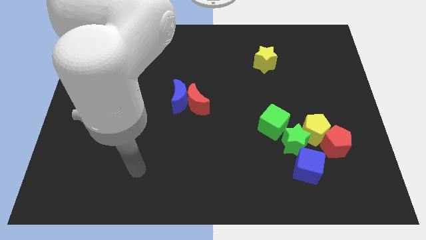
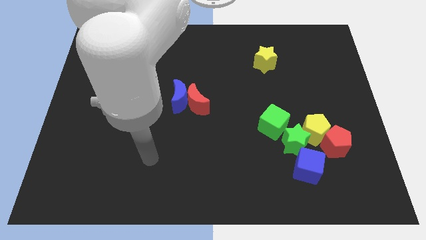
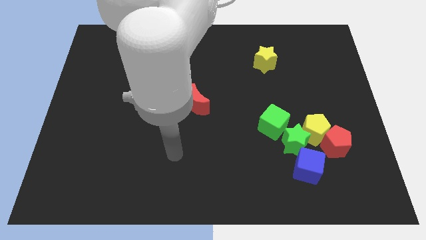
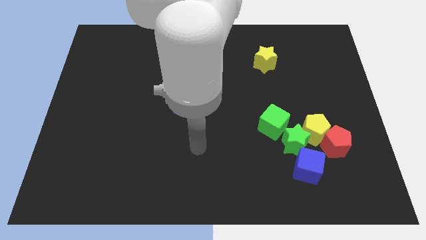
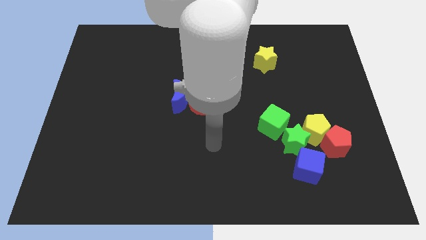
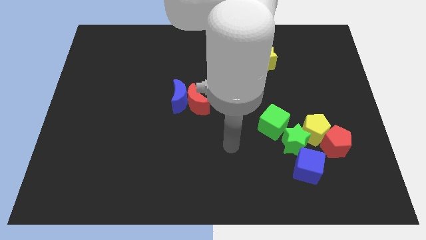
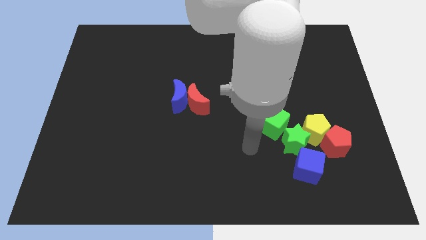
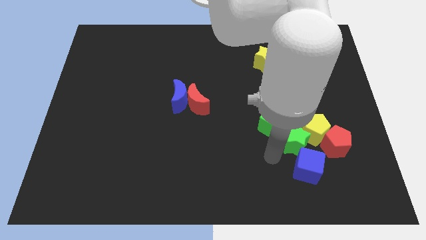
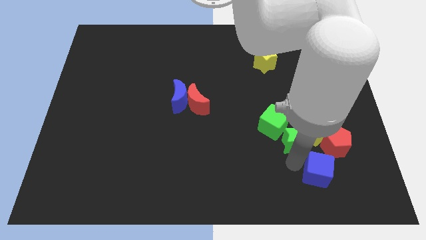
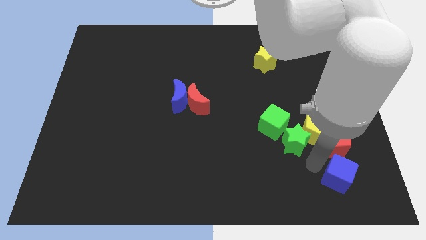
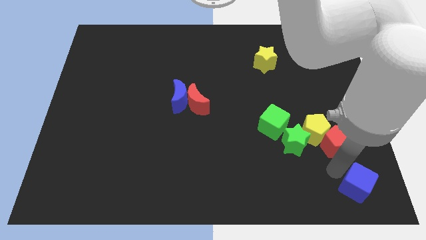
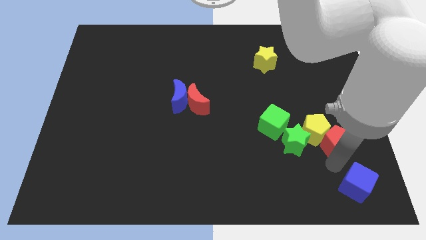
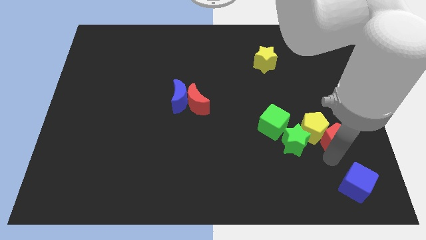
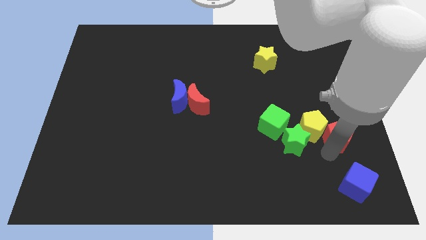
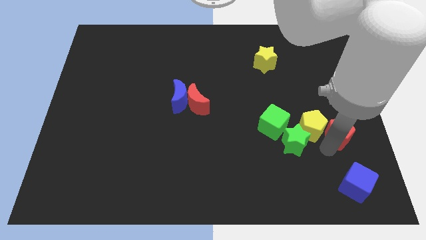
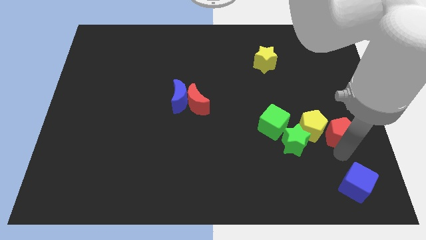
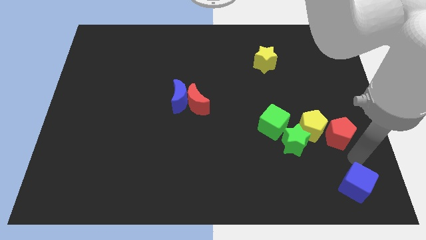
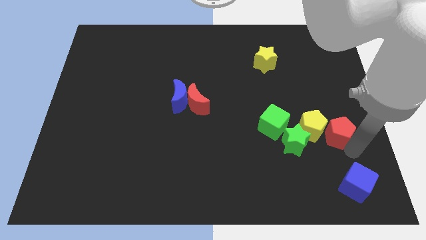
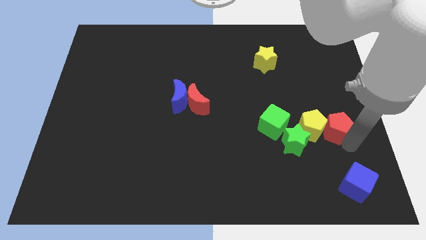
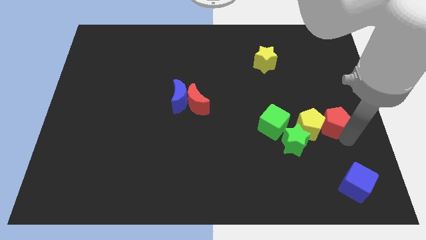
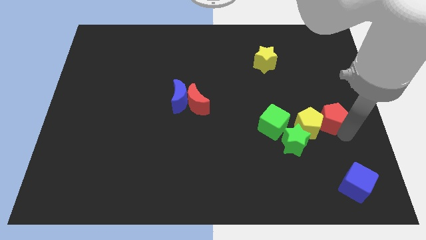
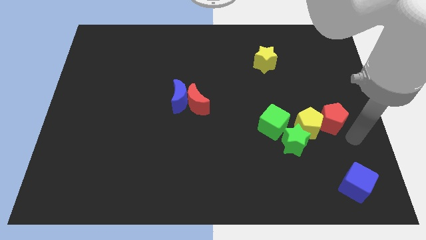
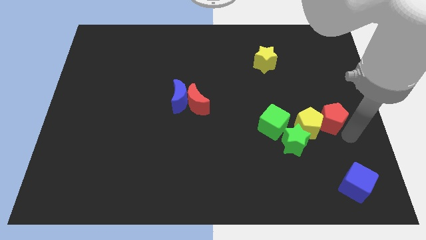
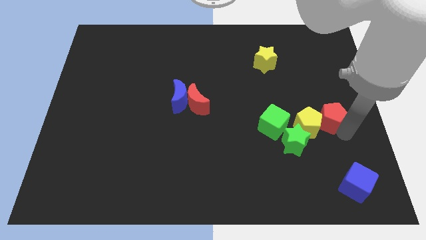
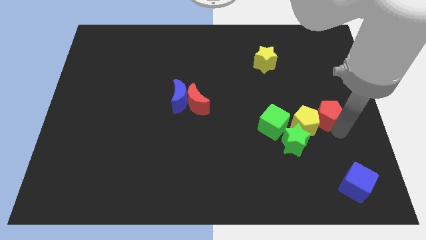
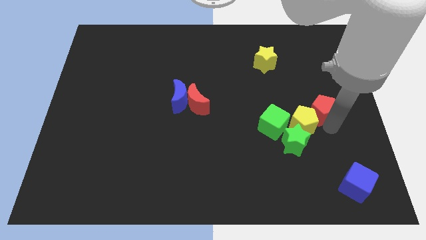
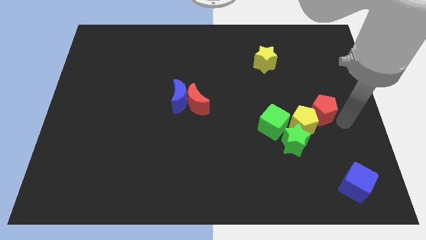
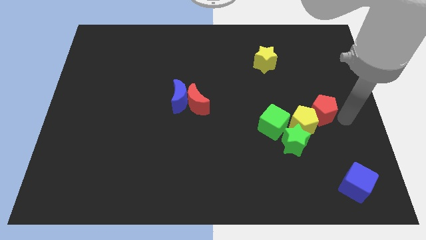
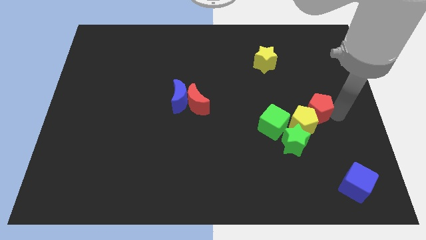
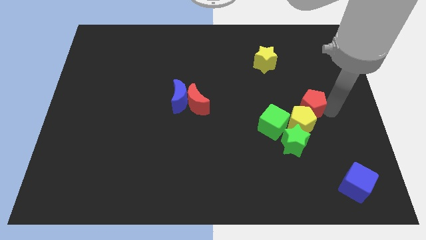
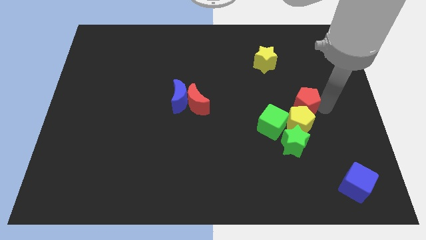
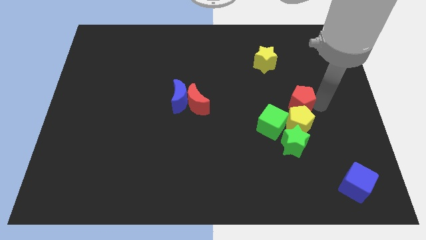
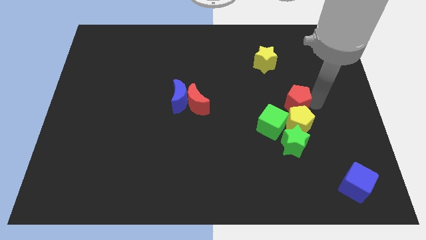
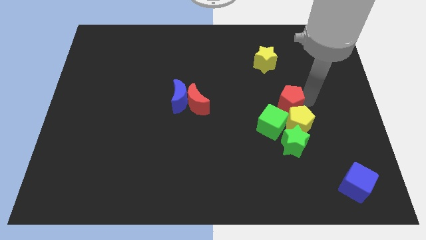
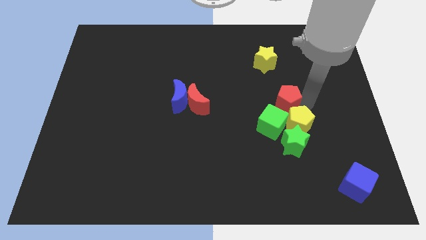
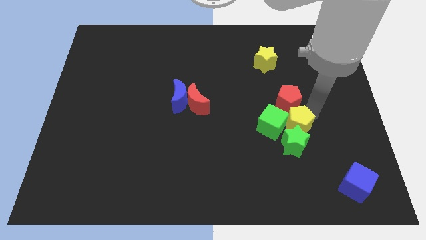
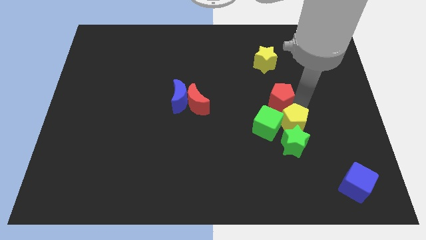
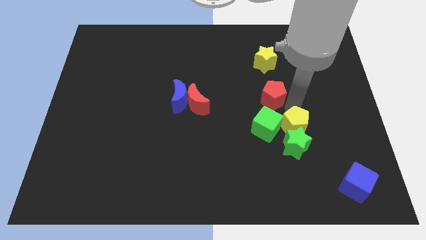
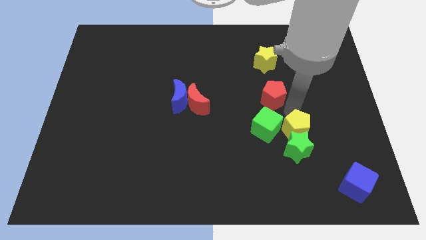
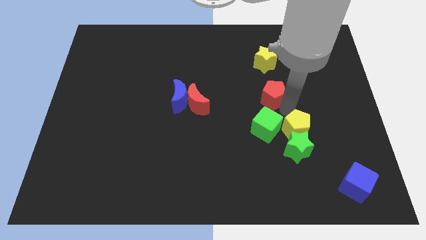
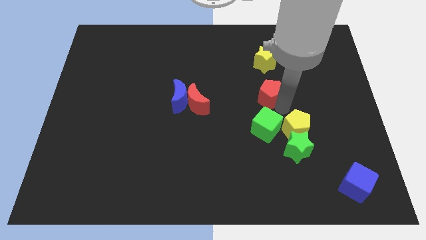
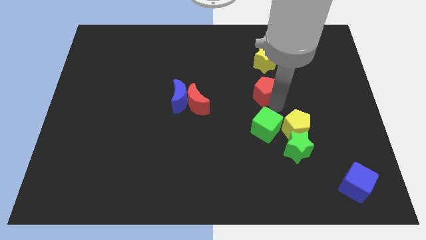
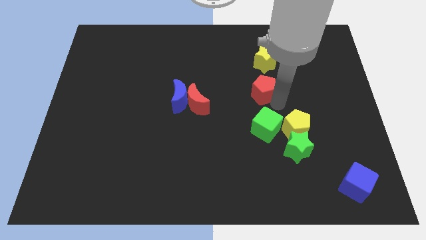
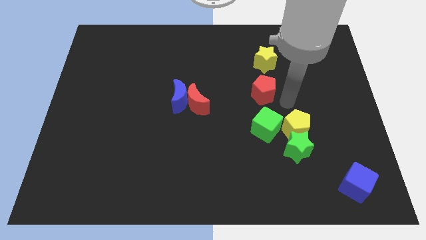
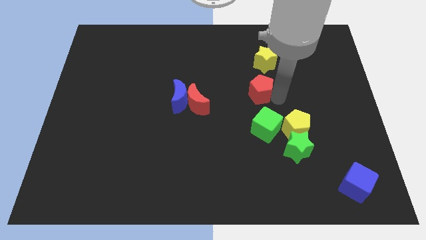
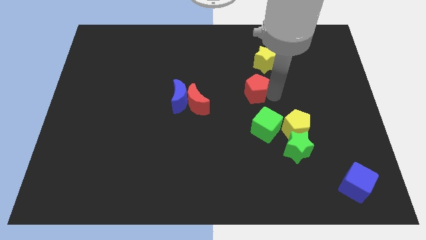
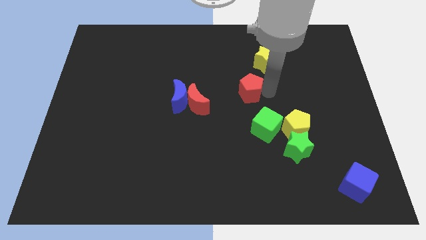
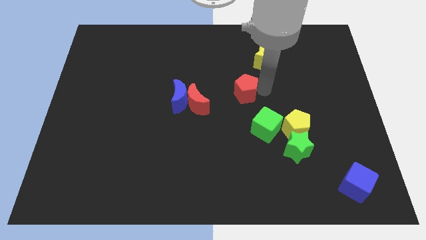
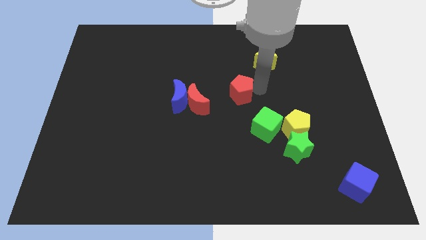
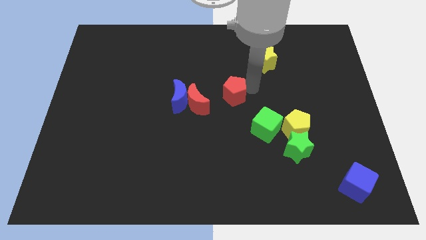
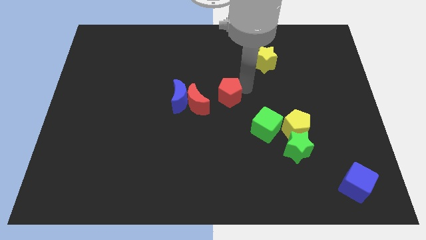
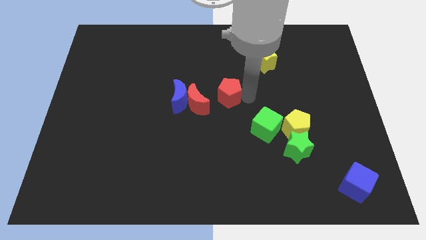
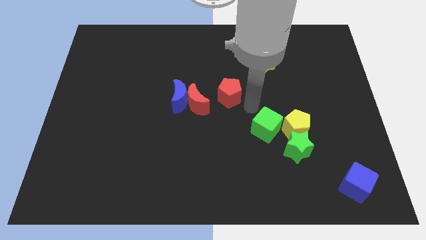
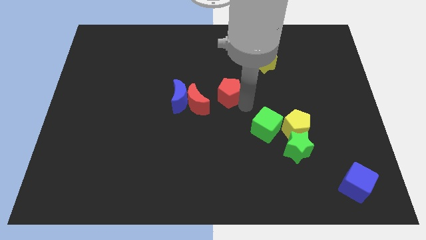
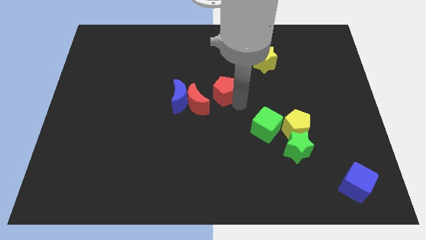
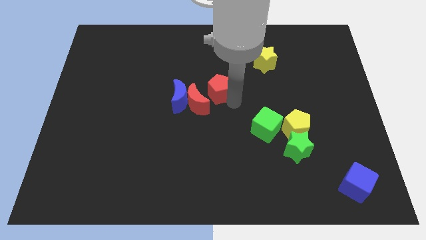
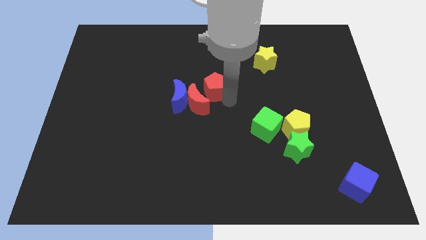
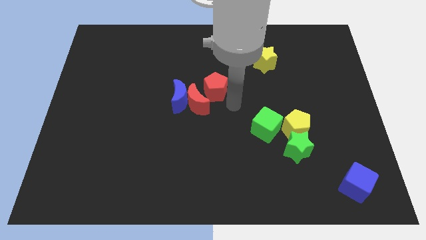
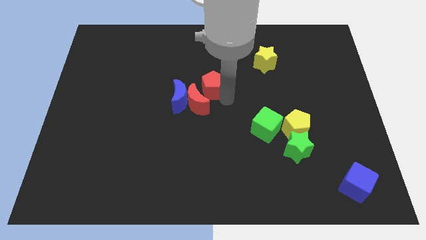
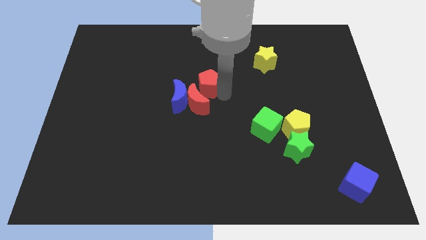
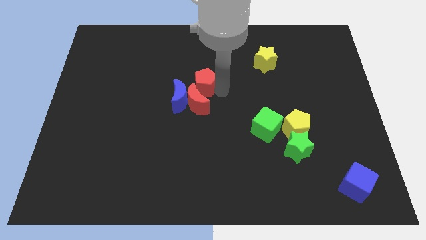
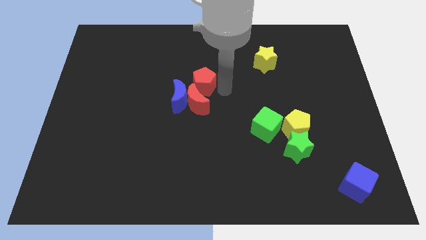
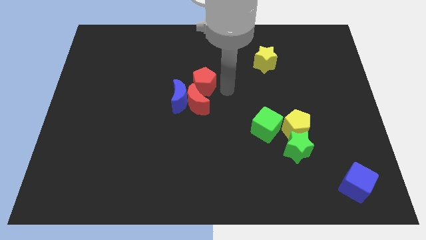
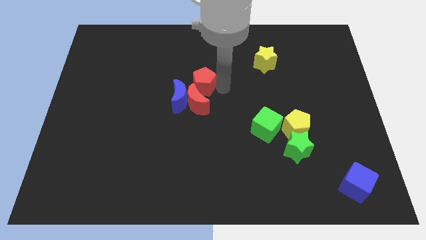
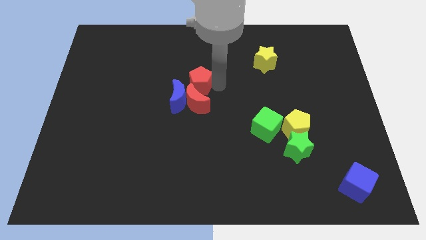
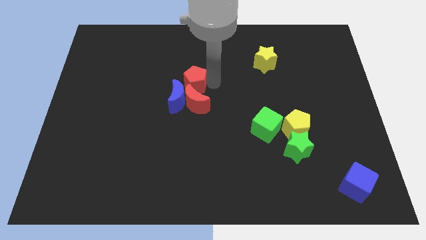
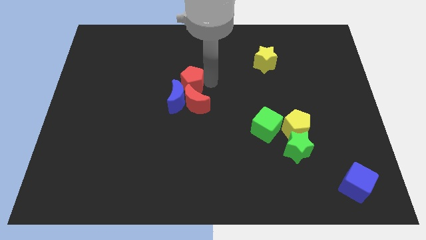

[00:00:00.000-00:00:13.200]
move the red pentagon towards the blue moon
